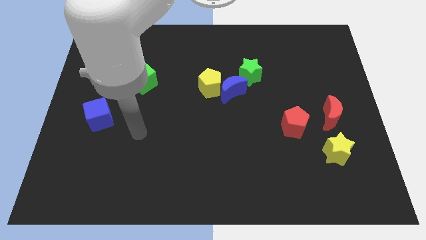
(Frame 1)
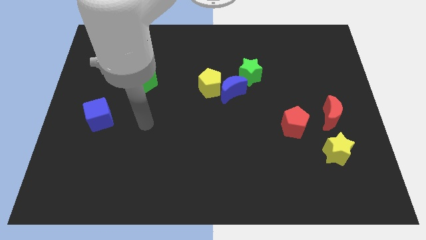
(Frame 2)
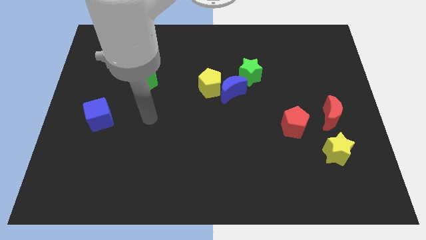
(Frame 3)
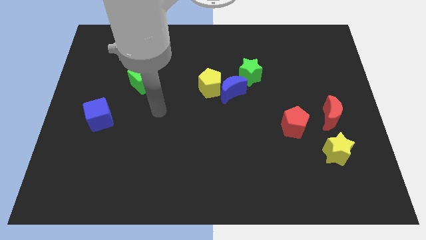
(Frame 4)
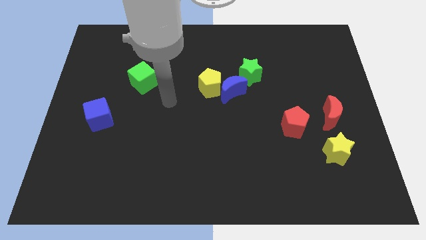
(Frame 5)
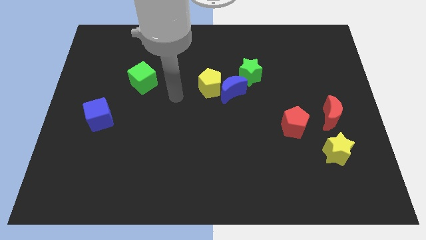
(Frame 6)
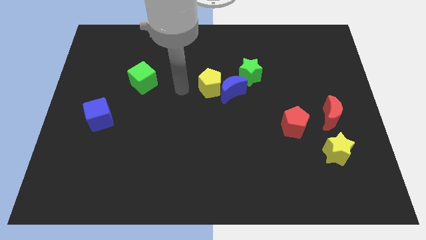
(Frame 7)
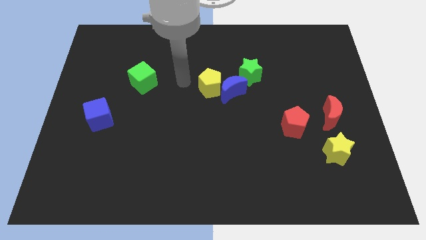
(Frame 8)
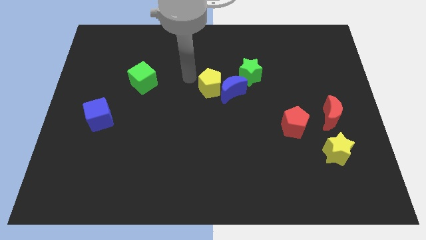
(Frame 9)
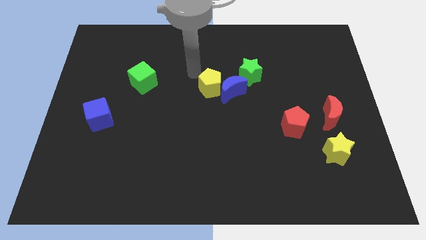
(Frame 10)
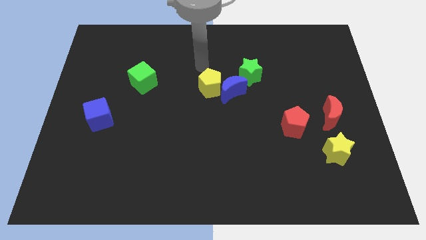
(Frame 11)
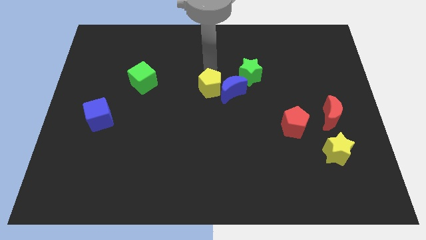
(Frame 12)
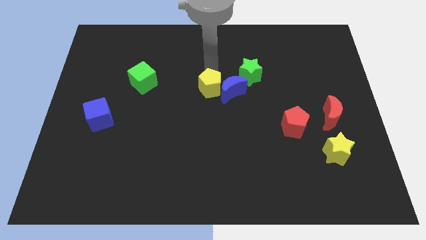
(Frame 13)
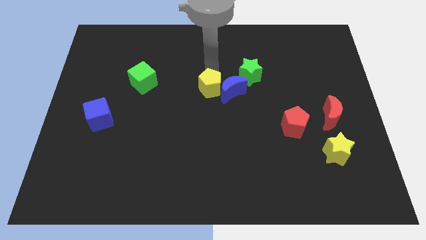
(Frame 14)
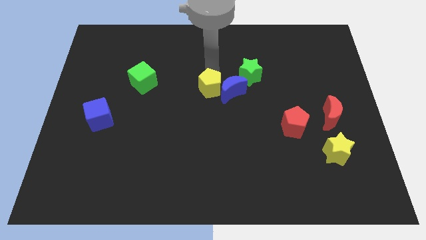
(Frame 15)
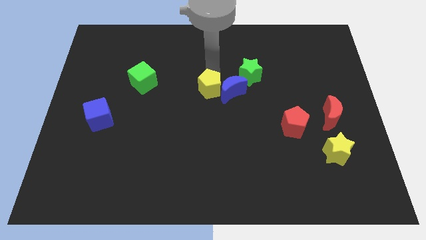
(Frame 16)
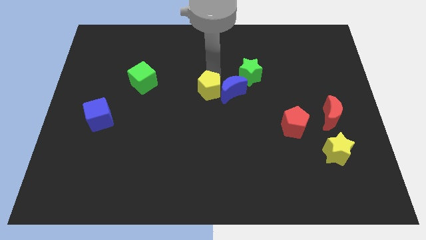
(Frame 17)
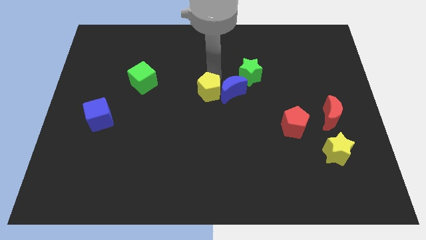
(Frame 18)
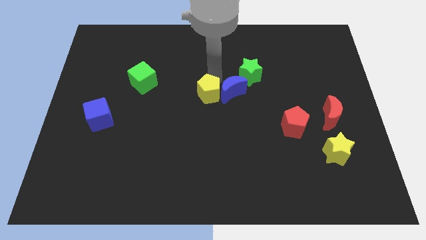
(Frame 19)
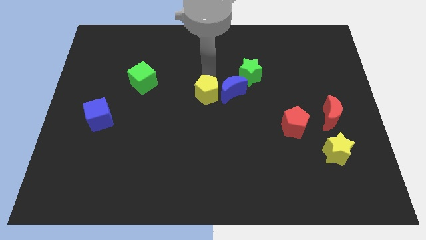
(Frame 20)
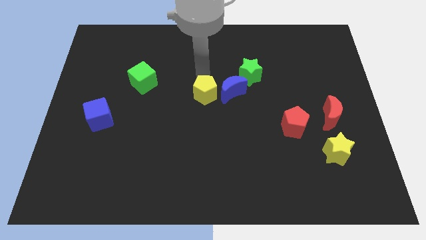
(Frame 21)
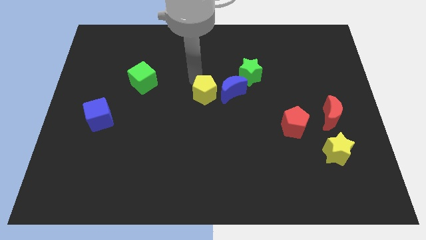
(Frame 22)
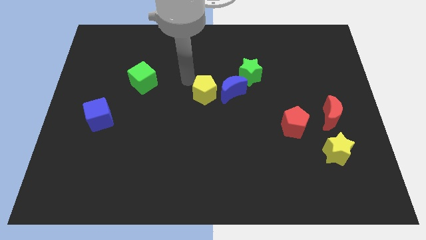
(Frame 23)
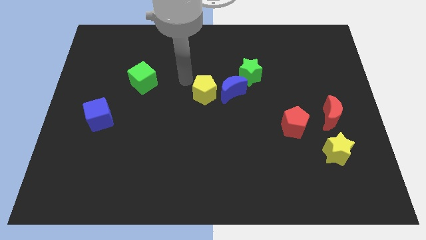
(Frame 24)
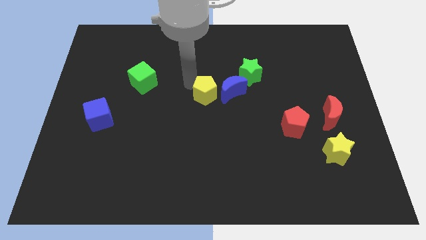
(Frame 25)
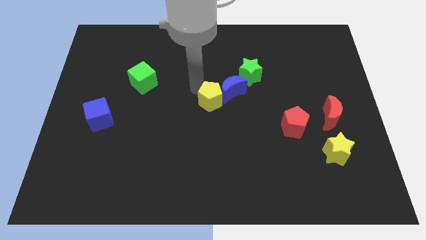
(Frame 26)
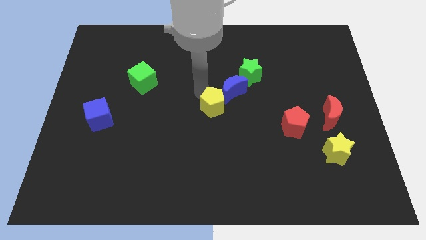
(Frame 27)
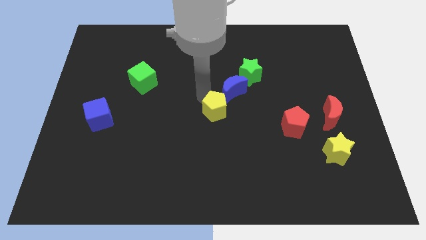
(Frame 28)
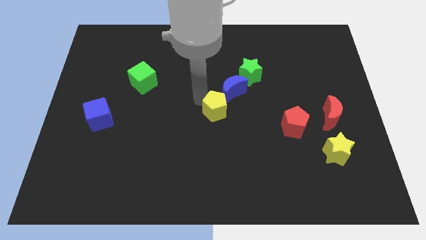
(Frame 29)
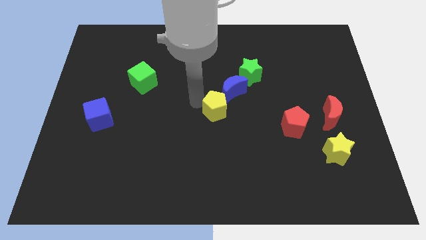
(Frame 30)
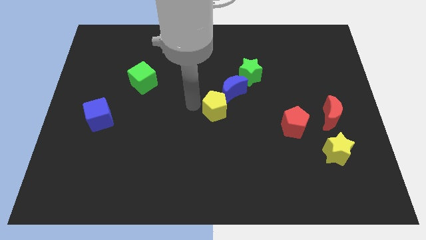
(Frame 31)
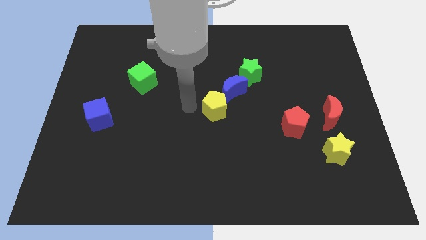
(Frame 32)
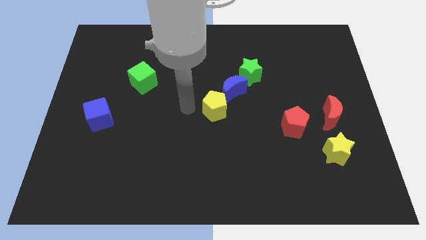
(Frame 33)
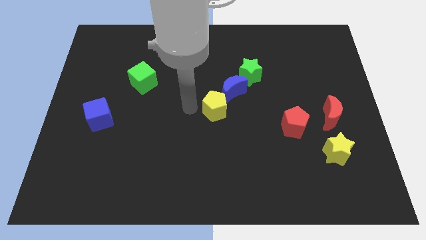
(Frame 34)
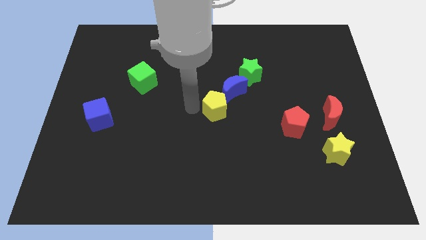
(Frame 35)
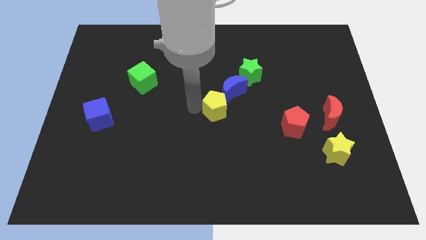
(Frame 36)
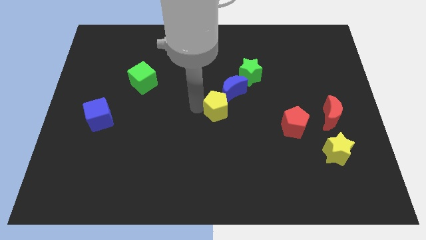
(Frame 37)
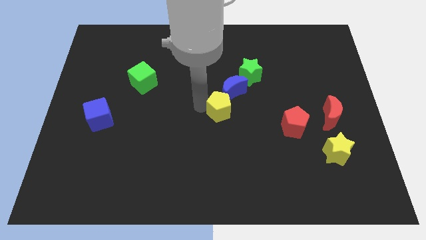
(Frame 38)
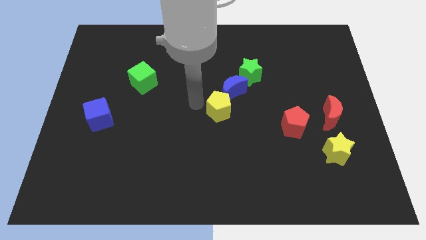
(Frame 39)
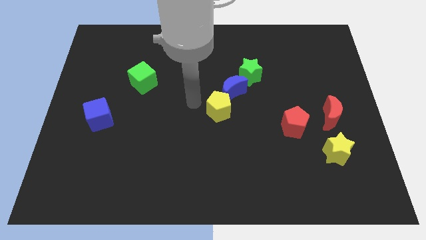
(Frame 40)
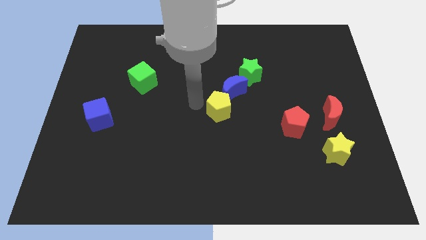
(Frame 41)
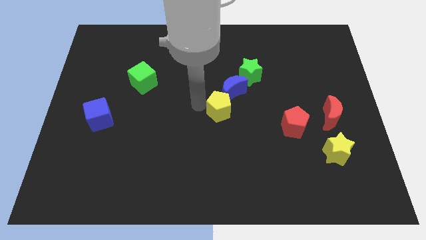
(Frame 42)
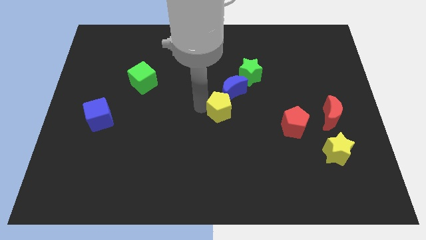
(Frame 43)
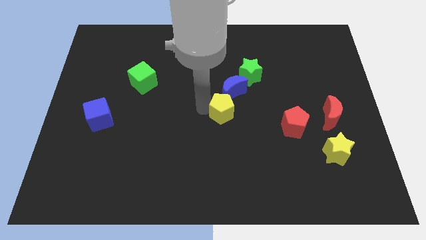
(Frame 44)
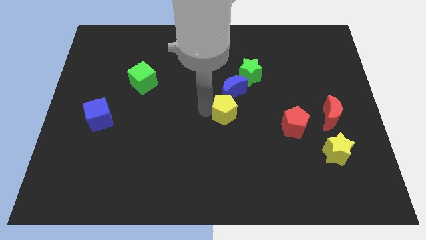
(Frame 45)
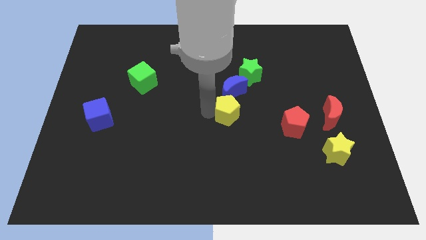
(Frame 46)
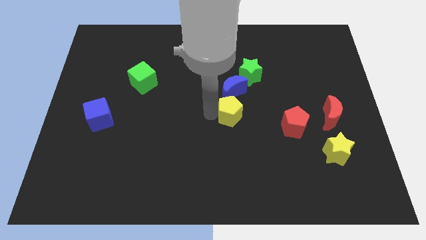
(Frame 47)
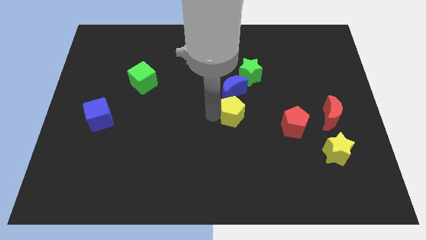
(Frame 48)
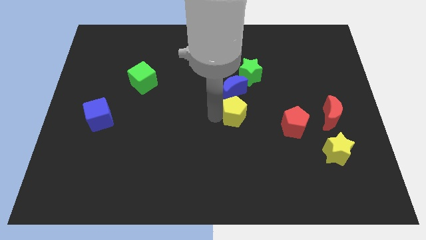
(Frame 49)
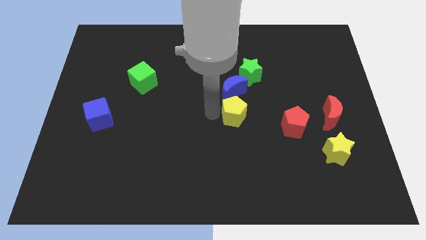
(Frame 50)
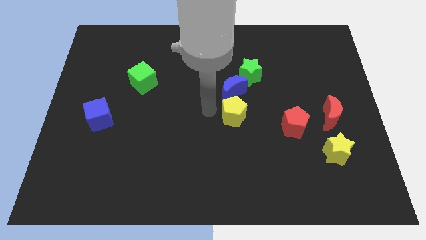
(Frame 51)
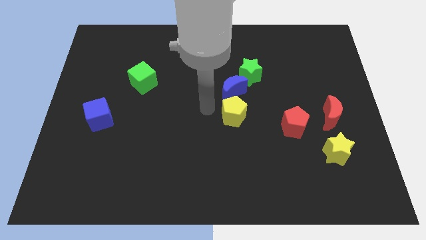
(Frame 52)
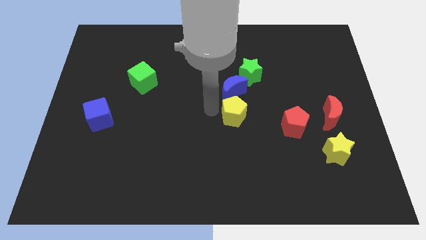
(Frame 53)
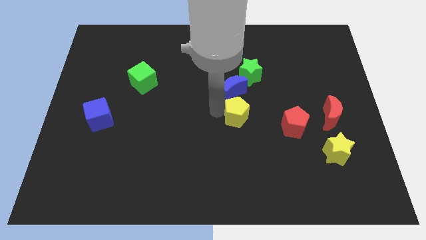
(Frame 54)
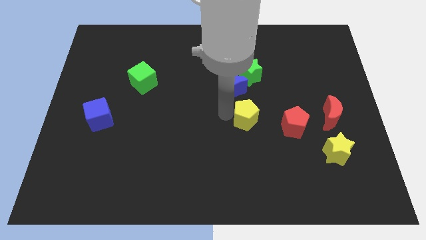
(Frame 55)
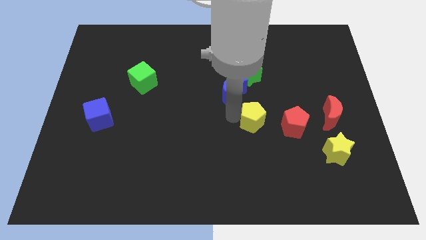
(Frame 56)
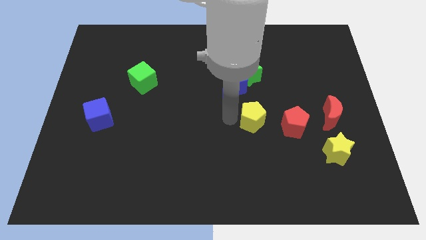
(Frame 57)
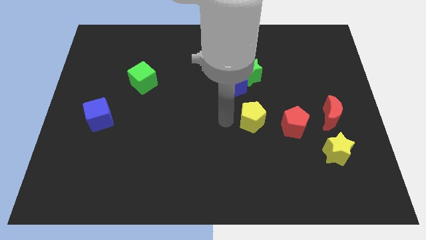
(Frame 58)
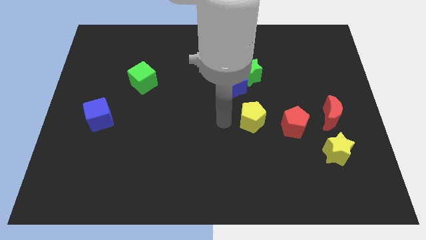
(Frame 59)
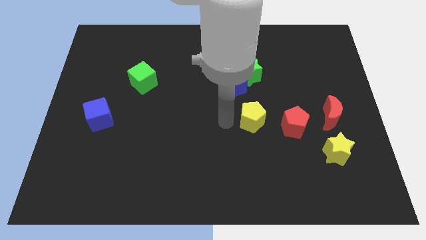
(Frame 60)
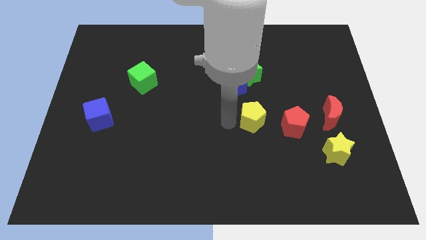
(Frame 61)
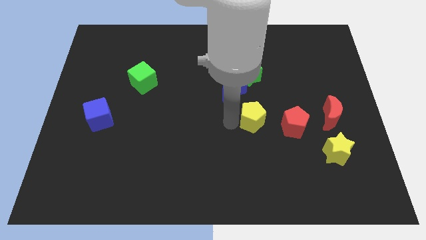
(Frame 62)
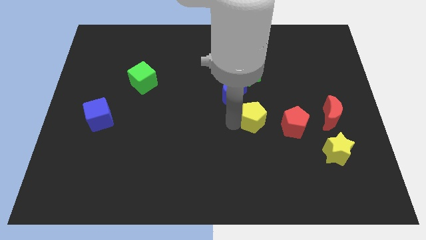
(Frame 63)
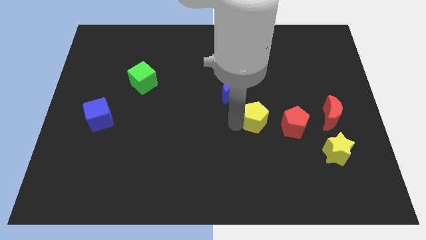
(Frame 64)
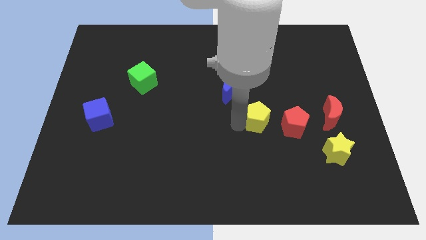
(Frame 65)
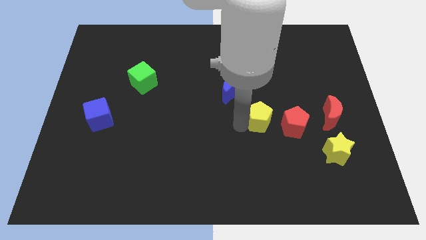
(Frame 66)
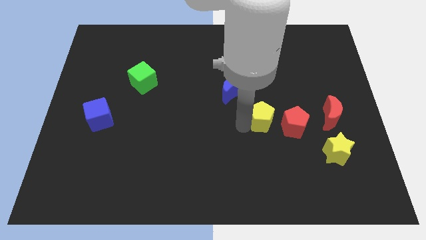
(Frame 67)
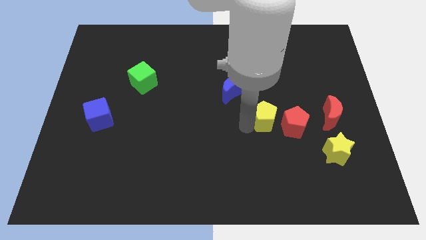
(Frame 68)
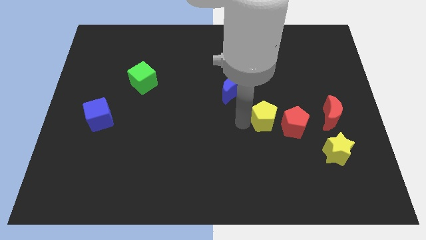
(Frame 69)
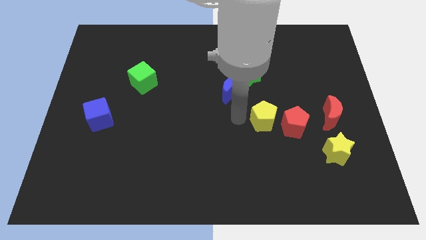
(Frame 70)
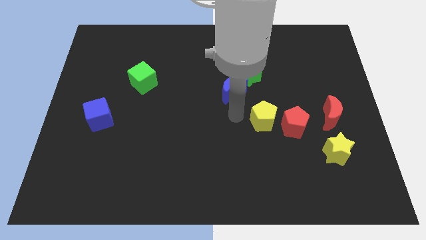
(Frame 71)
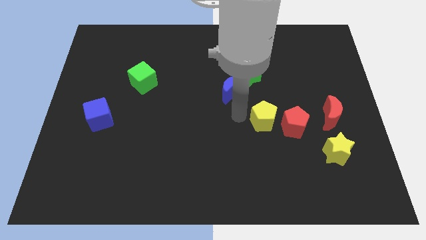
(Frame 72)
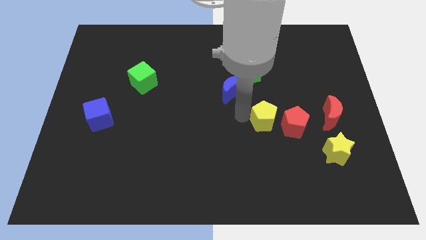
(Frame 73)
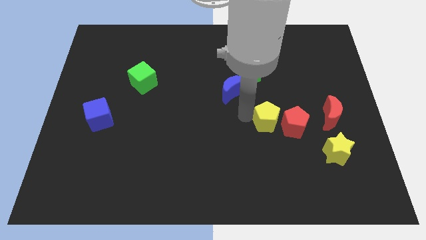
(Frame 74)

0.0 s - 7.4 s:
push the yellow pentagon towards the red pentagon
